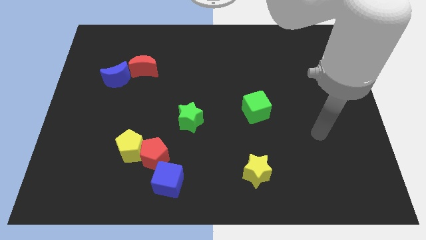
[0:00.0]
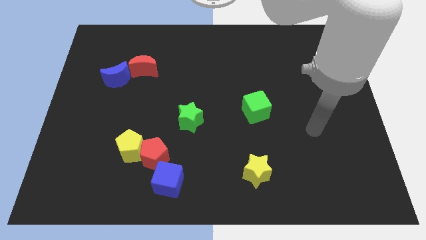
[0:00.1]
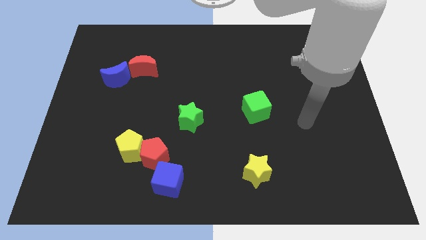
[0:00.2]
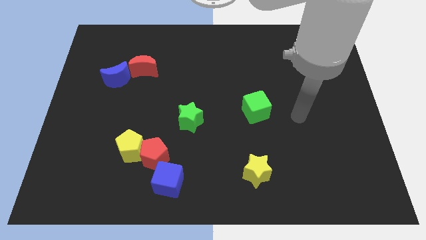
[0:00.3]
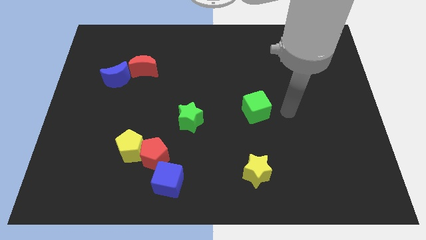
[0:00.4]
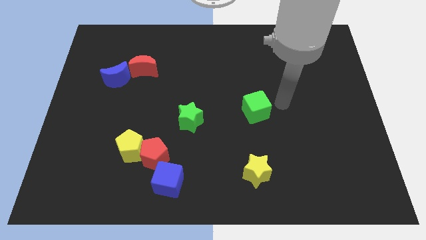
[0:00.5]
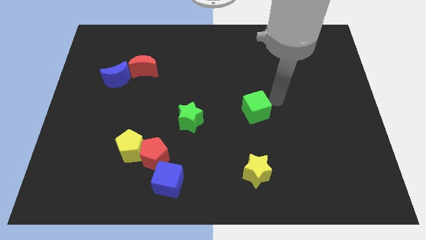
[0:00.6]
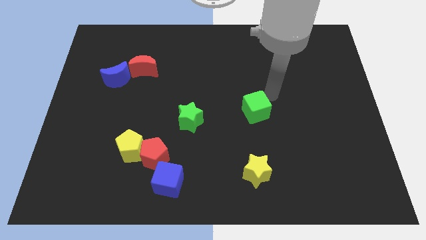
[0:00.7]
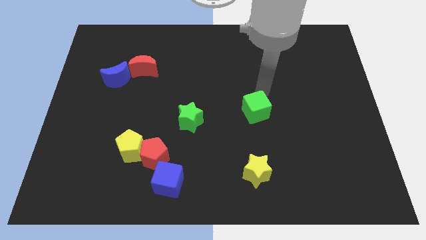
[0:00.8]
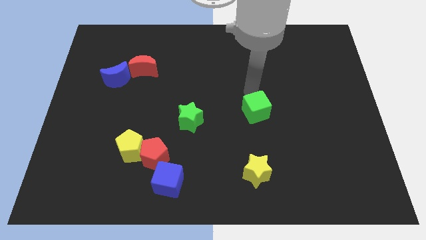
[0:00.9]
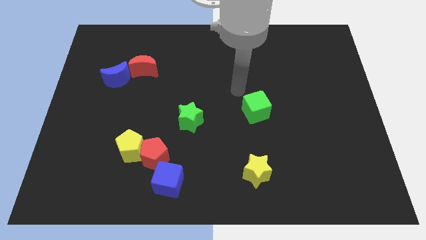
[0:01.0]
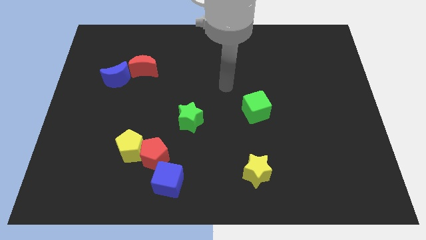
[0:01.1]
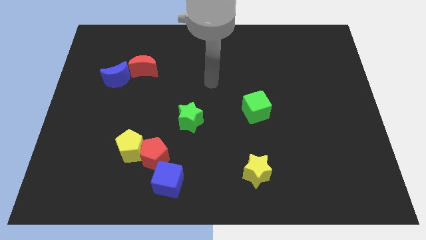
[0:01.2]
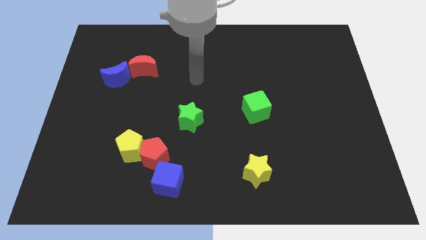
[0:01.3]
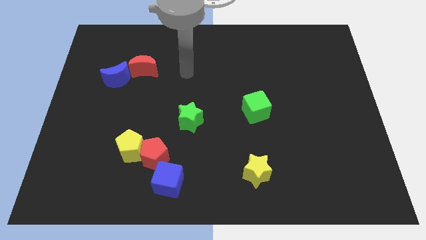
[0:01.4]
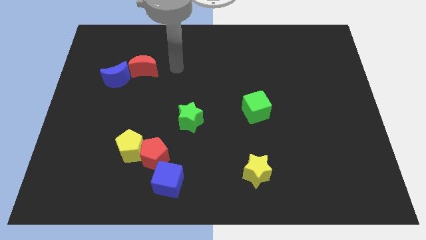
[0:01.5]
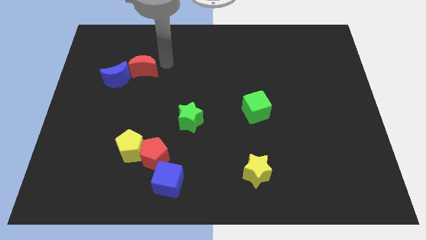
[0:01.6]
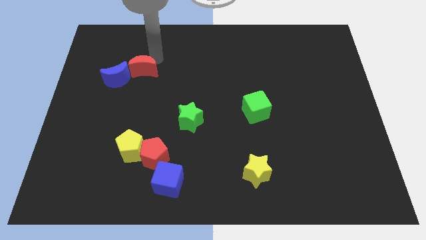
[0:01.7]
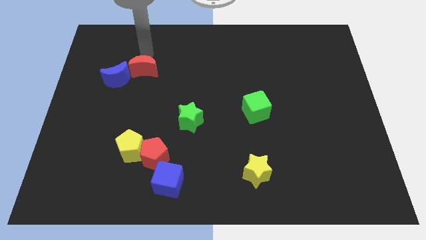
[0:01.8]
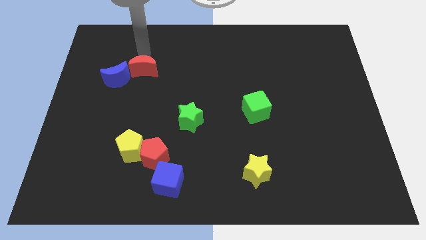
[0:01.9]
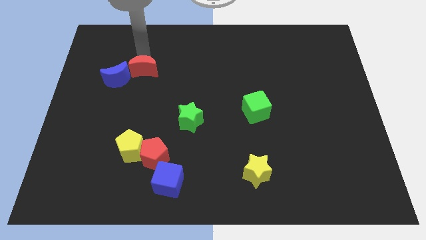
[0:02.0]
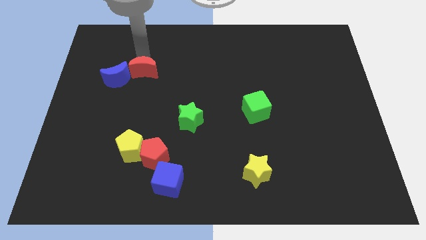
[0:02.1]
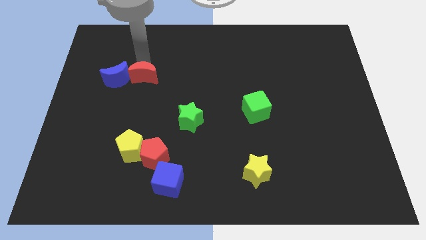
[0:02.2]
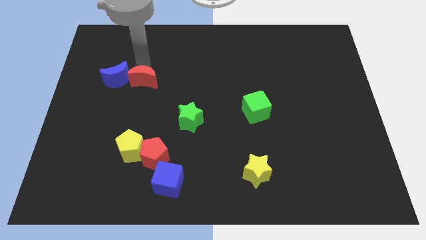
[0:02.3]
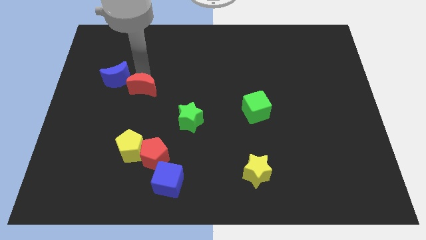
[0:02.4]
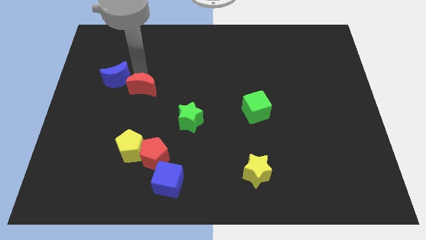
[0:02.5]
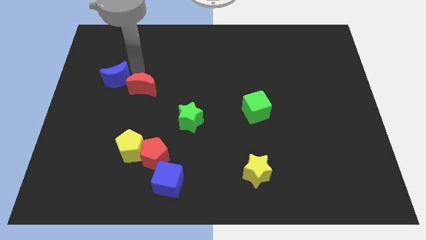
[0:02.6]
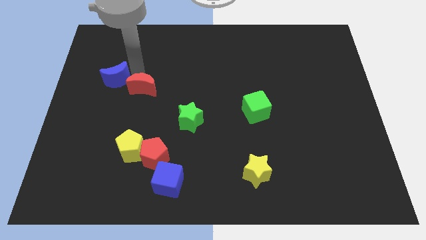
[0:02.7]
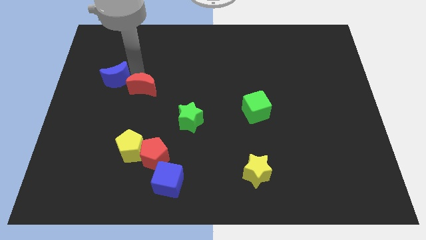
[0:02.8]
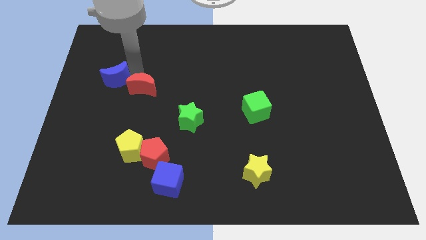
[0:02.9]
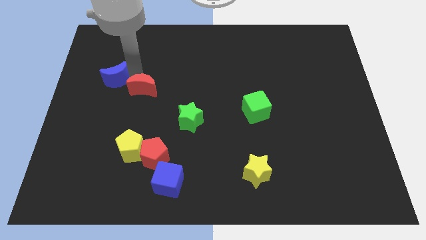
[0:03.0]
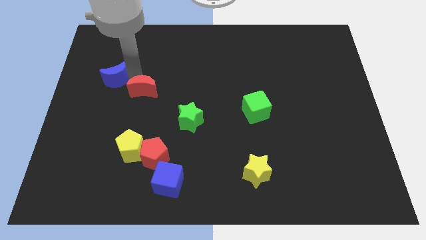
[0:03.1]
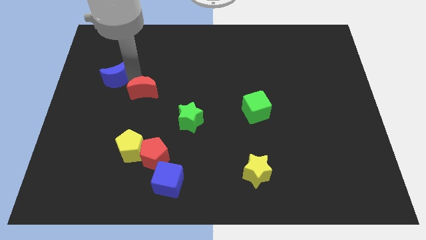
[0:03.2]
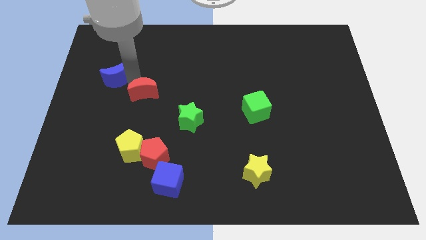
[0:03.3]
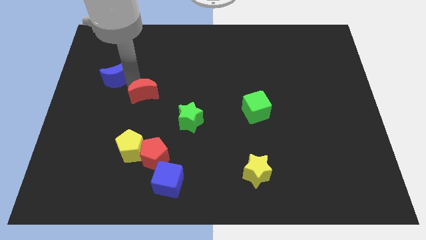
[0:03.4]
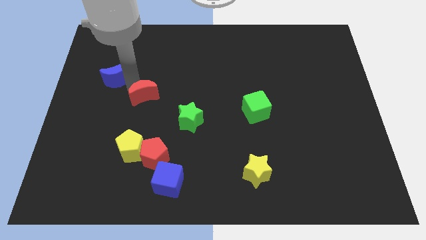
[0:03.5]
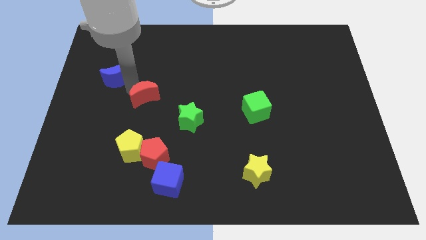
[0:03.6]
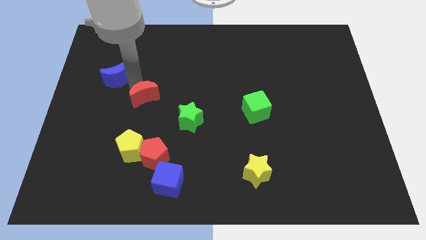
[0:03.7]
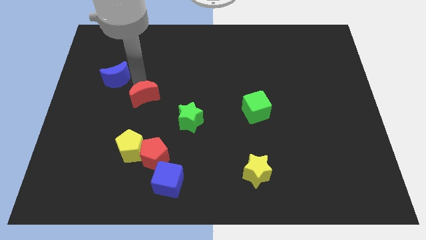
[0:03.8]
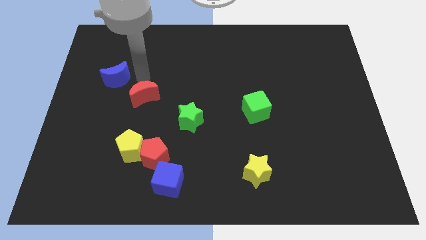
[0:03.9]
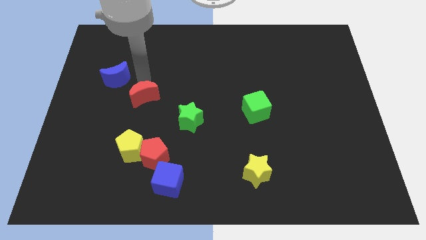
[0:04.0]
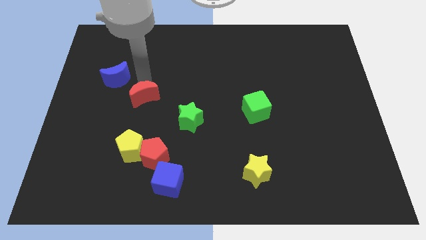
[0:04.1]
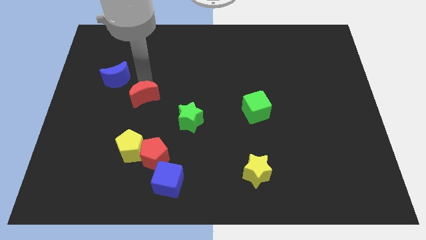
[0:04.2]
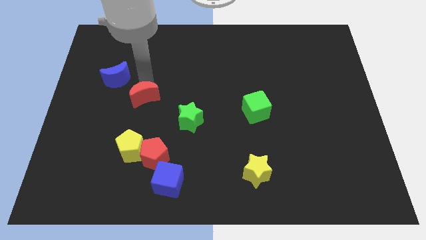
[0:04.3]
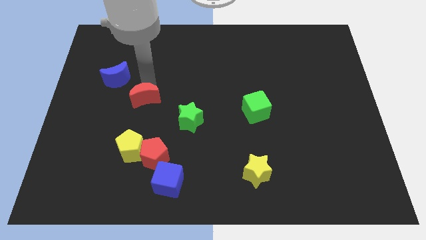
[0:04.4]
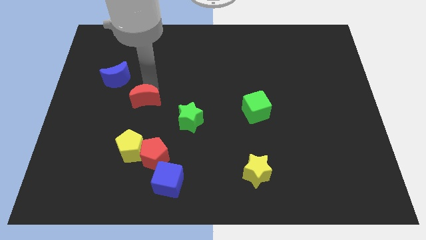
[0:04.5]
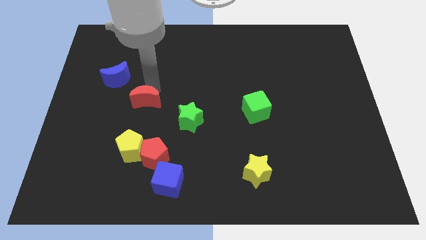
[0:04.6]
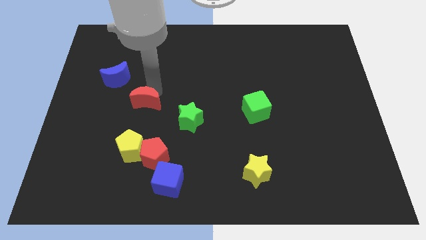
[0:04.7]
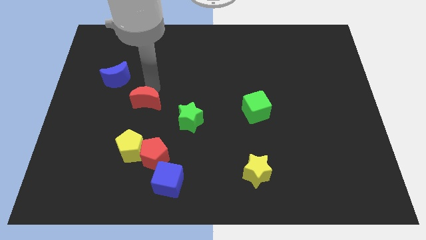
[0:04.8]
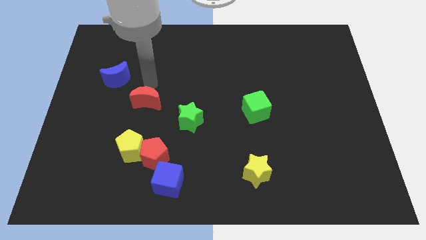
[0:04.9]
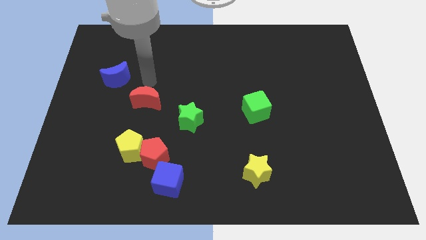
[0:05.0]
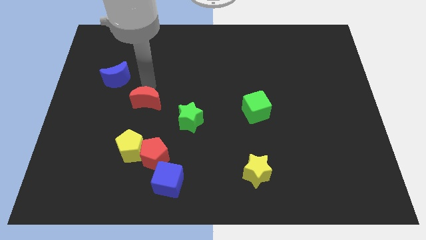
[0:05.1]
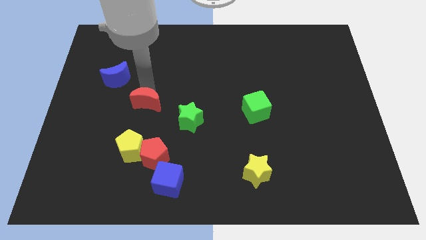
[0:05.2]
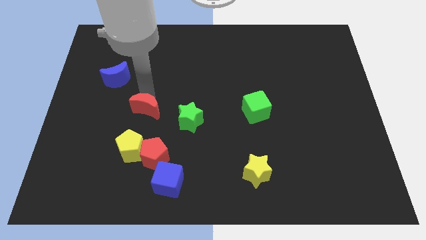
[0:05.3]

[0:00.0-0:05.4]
move the red moon to the left of the green star

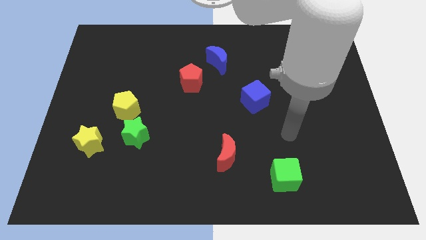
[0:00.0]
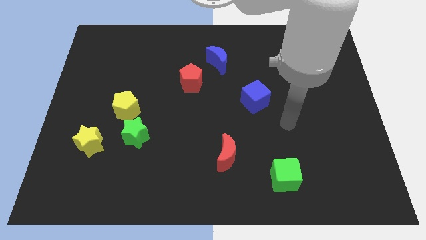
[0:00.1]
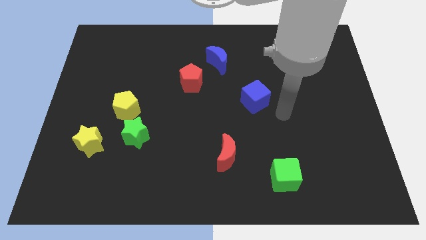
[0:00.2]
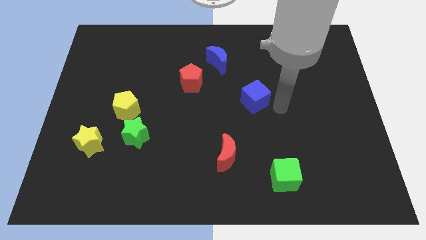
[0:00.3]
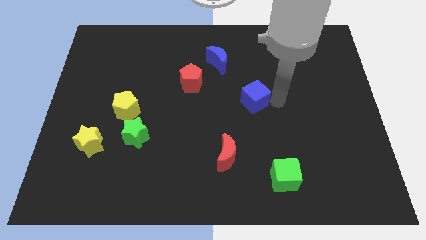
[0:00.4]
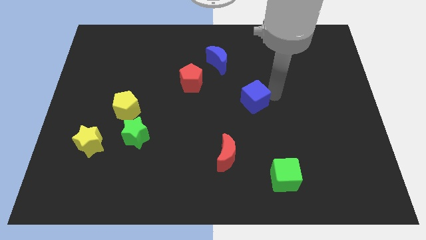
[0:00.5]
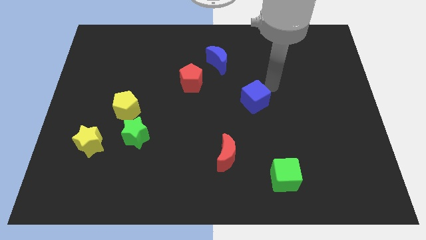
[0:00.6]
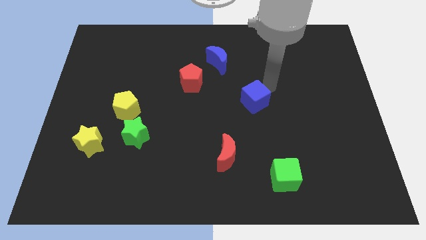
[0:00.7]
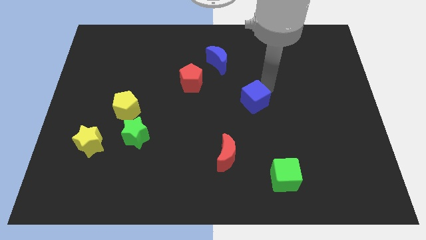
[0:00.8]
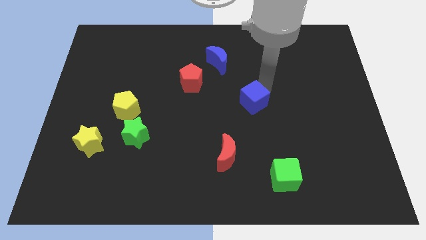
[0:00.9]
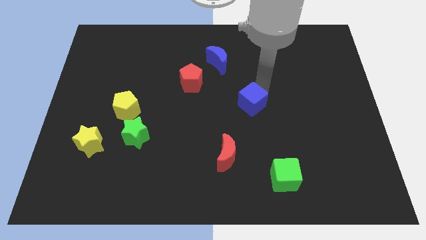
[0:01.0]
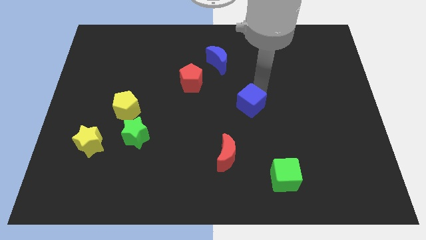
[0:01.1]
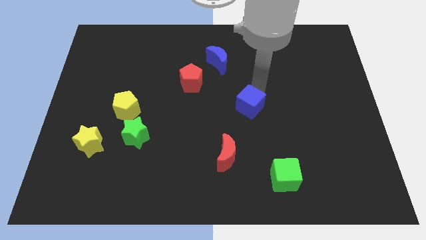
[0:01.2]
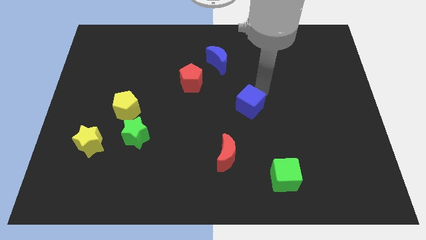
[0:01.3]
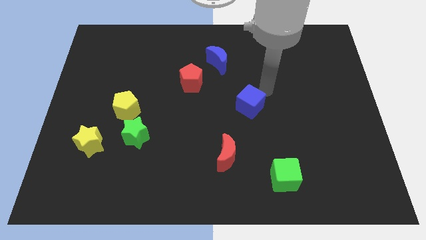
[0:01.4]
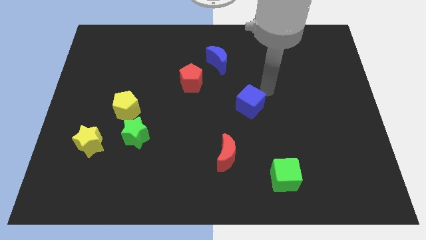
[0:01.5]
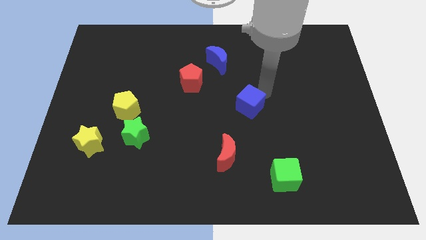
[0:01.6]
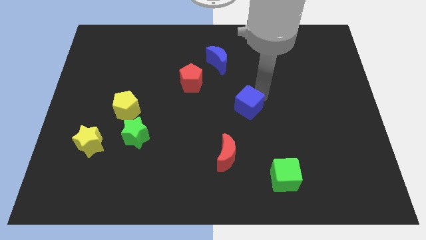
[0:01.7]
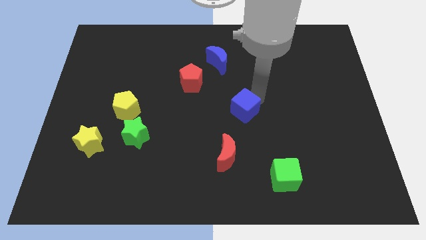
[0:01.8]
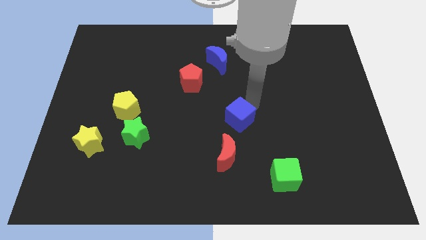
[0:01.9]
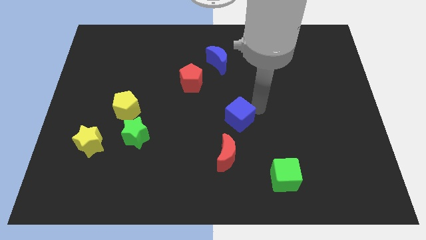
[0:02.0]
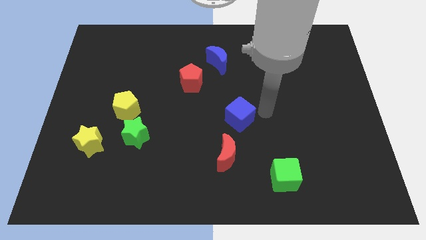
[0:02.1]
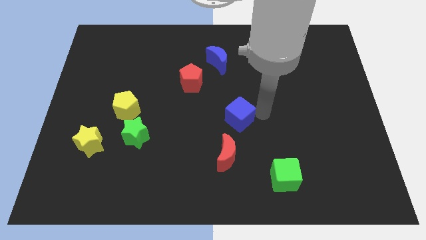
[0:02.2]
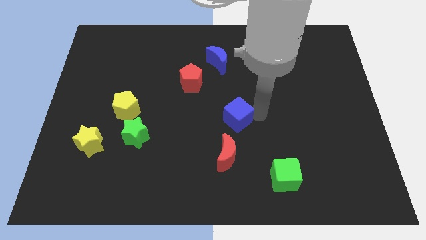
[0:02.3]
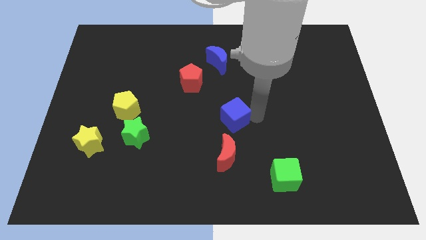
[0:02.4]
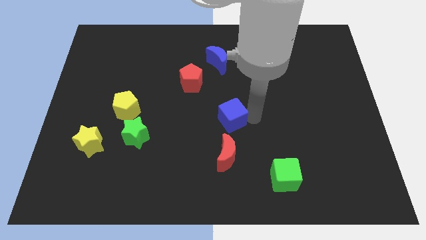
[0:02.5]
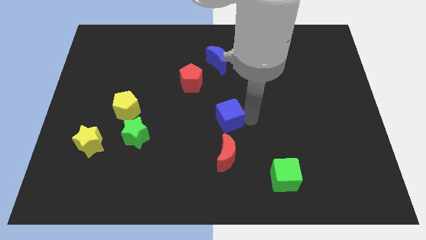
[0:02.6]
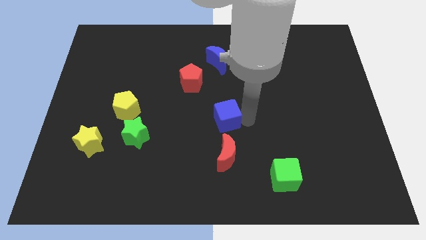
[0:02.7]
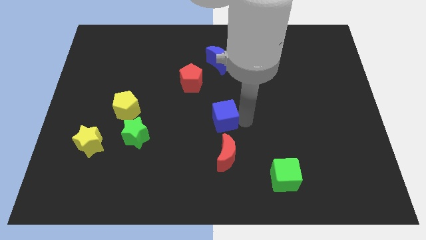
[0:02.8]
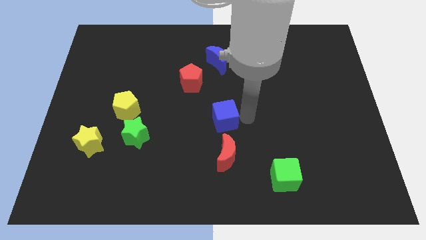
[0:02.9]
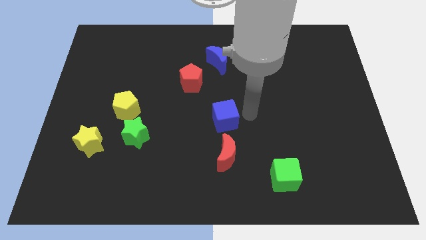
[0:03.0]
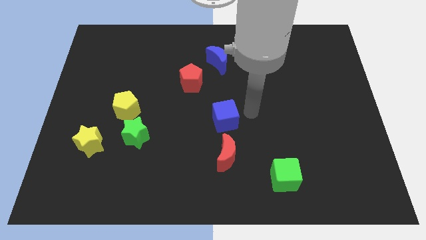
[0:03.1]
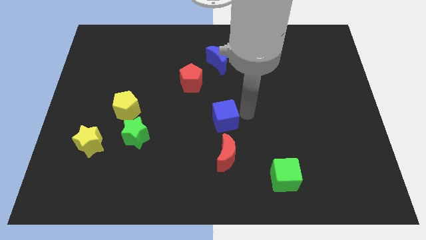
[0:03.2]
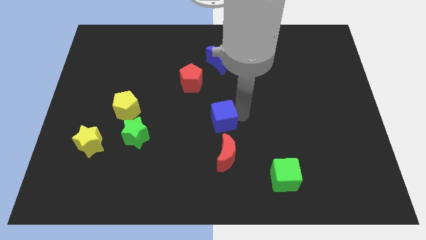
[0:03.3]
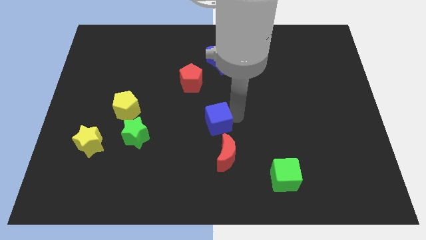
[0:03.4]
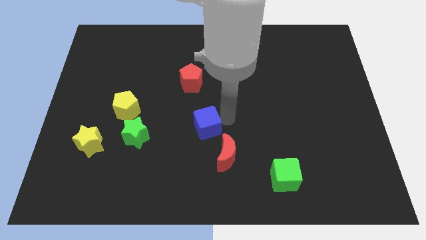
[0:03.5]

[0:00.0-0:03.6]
slide the blue cube to the right side of the green star
